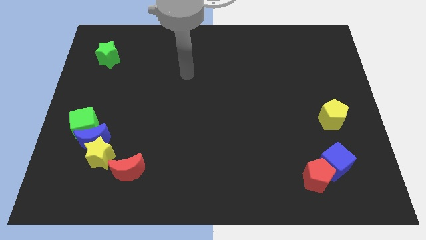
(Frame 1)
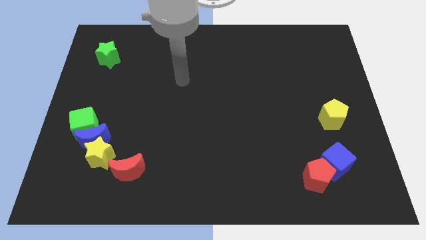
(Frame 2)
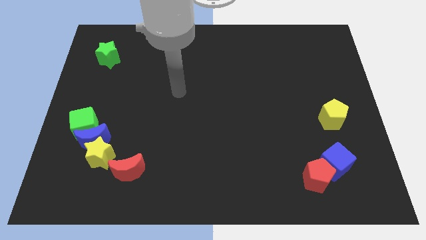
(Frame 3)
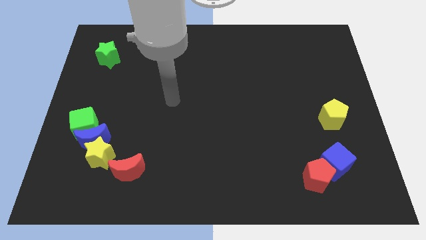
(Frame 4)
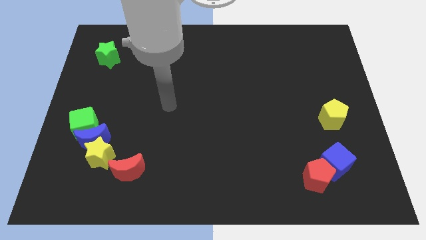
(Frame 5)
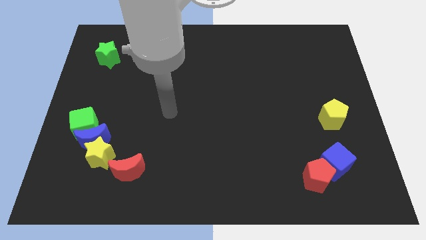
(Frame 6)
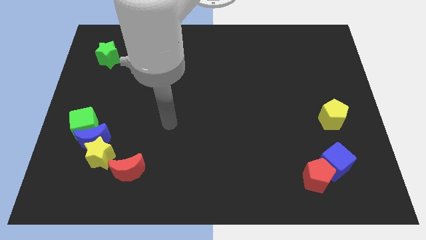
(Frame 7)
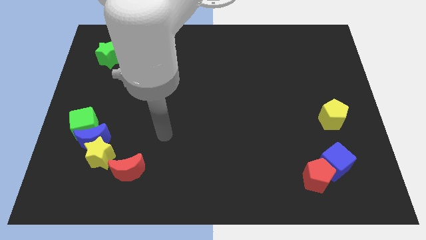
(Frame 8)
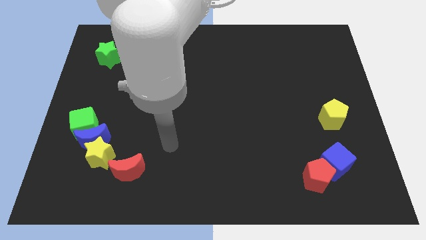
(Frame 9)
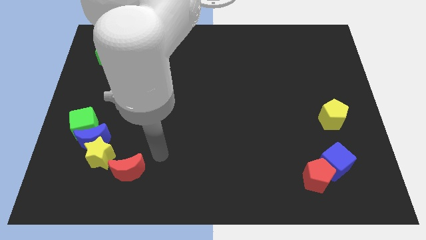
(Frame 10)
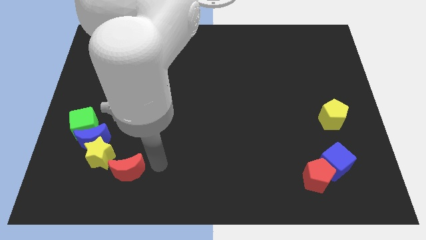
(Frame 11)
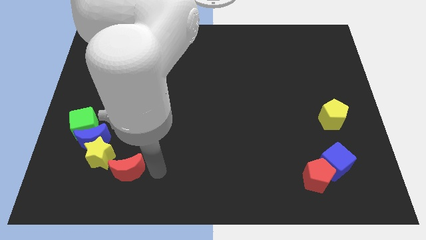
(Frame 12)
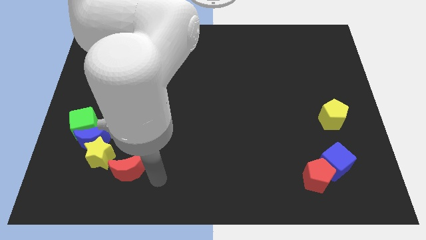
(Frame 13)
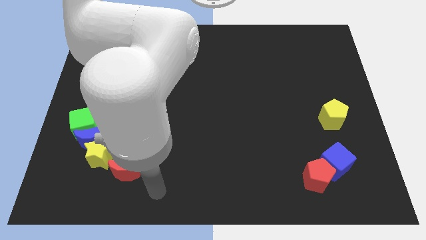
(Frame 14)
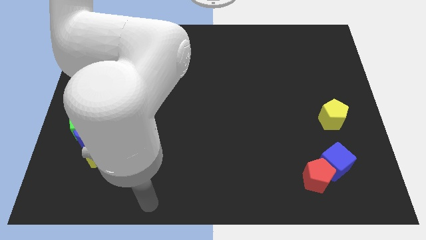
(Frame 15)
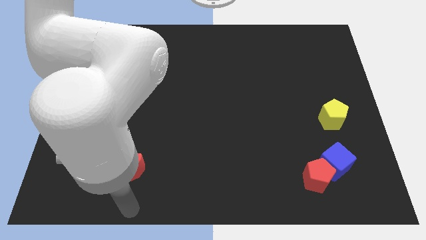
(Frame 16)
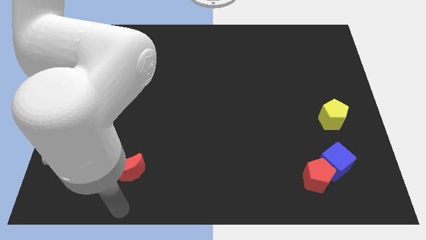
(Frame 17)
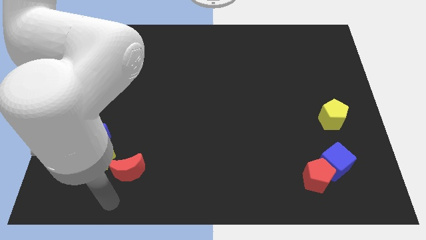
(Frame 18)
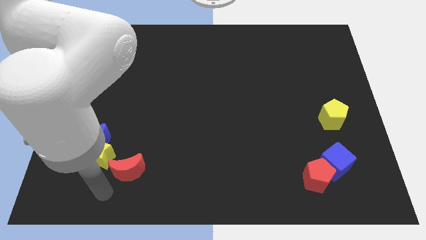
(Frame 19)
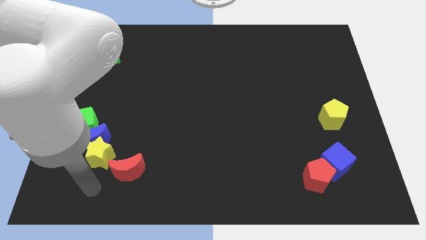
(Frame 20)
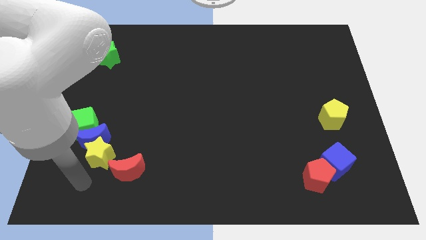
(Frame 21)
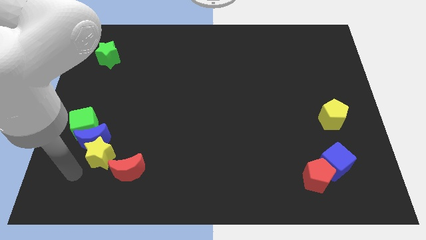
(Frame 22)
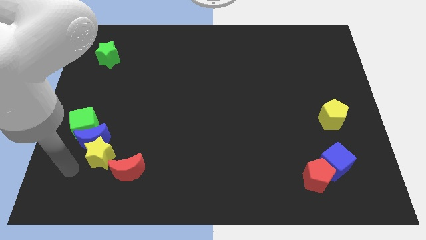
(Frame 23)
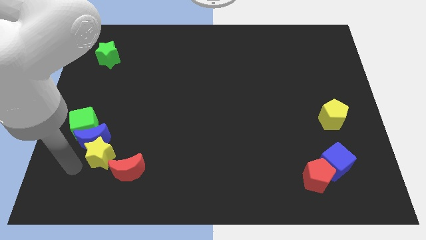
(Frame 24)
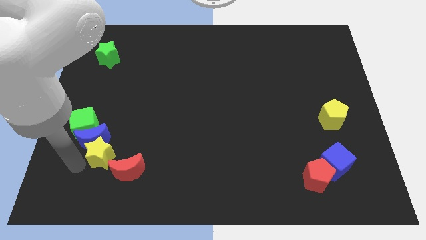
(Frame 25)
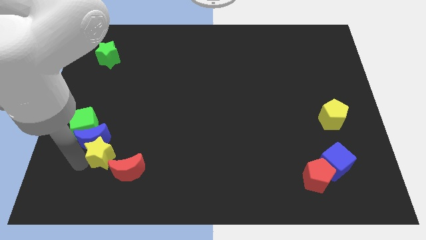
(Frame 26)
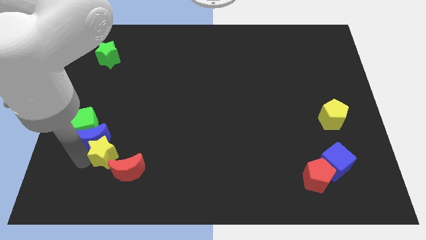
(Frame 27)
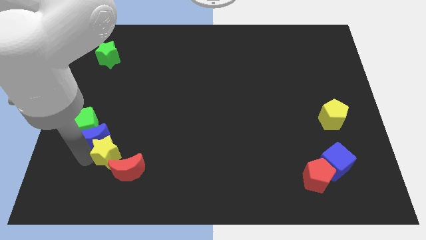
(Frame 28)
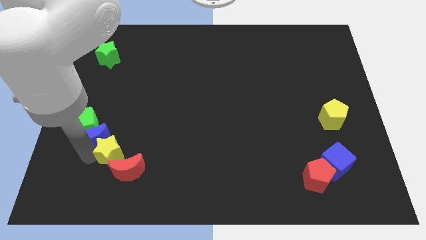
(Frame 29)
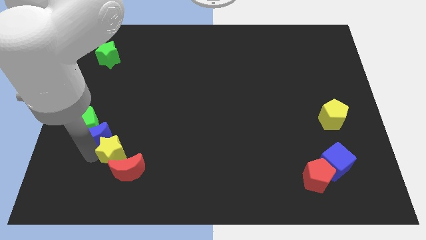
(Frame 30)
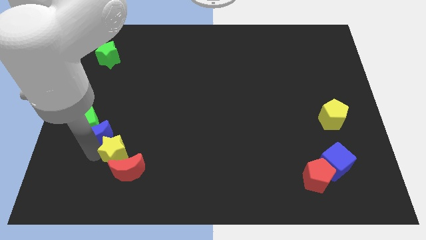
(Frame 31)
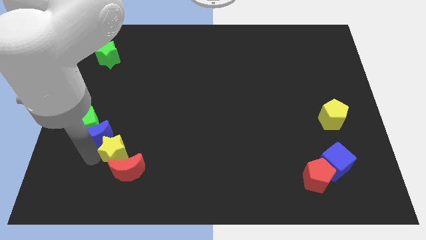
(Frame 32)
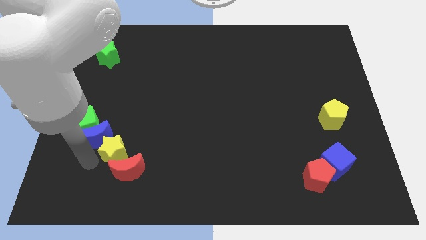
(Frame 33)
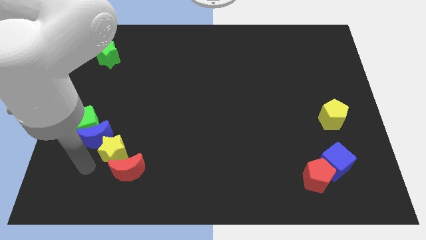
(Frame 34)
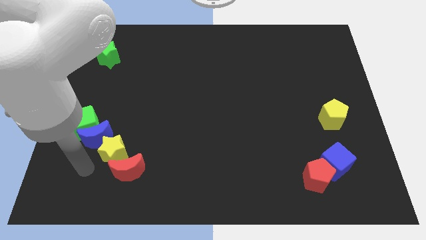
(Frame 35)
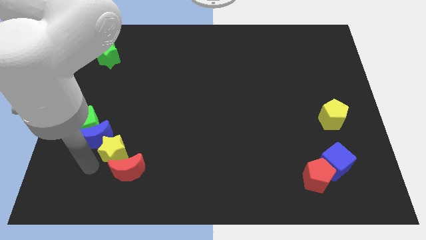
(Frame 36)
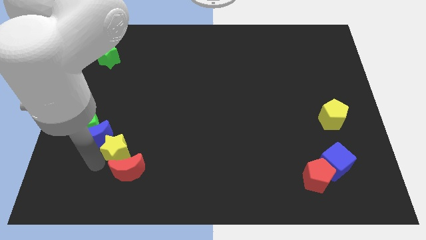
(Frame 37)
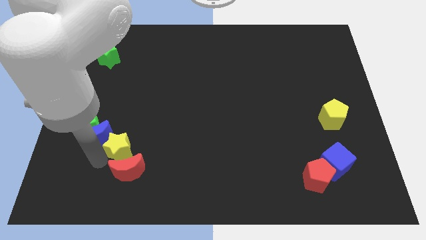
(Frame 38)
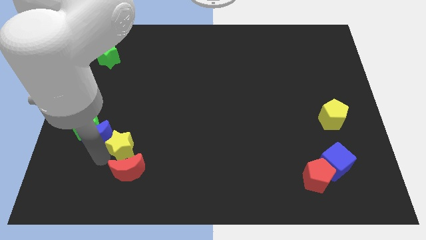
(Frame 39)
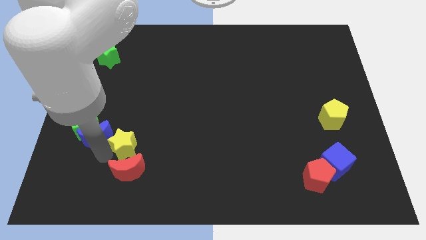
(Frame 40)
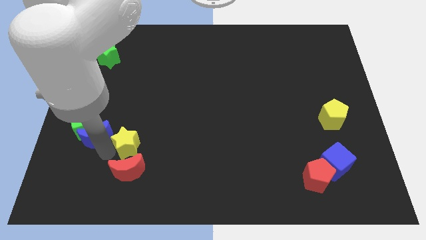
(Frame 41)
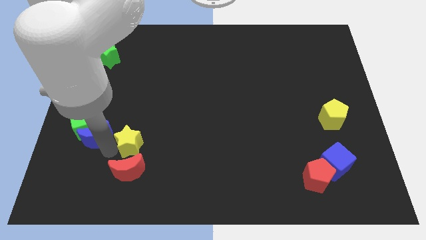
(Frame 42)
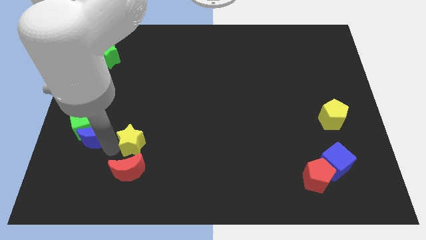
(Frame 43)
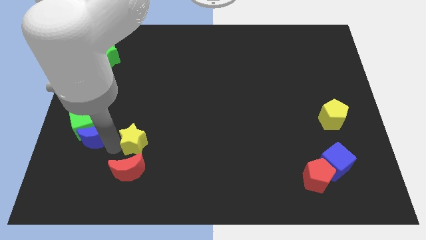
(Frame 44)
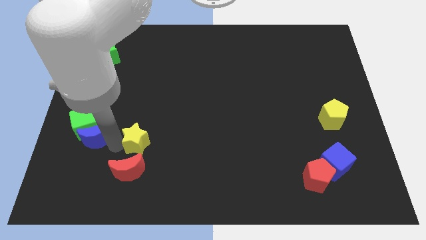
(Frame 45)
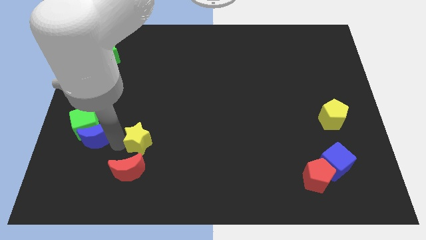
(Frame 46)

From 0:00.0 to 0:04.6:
slightly push the yellow star right

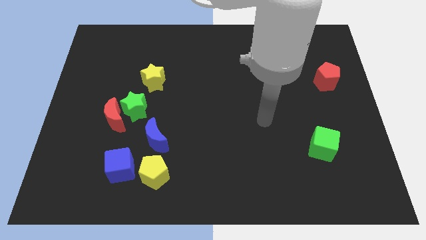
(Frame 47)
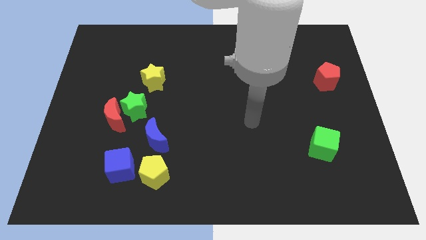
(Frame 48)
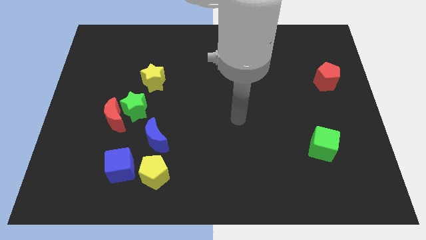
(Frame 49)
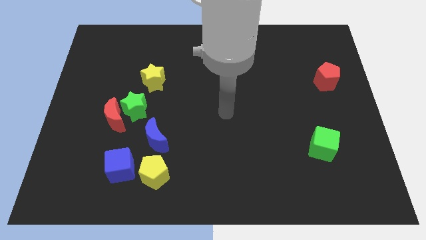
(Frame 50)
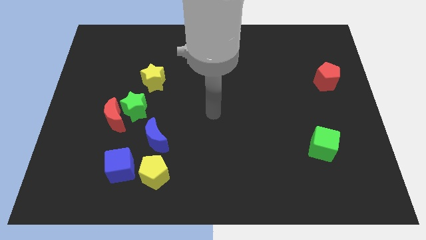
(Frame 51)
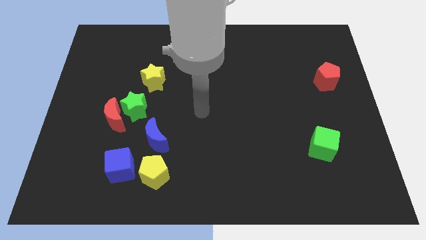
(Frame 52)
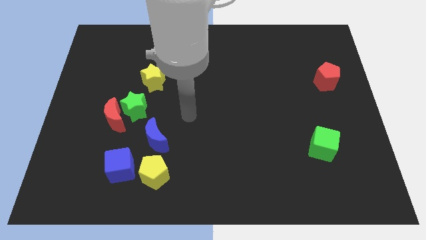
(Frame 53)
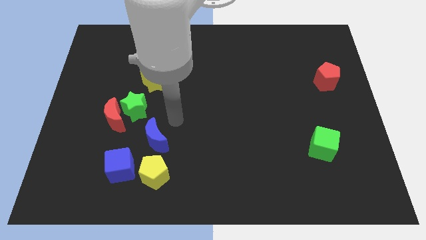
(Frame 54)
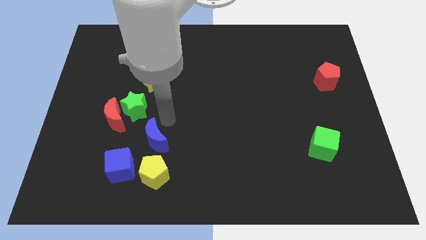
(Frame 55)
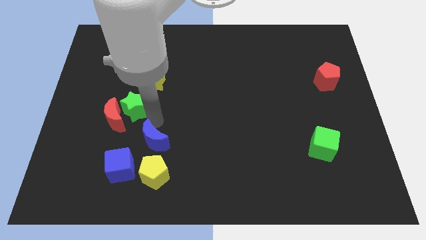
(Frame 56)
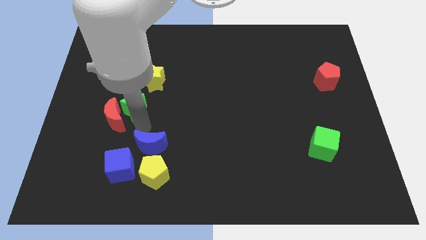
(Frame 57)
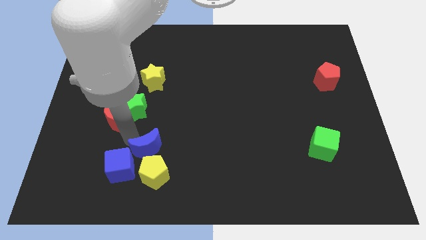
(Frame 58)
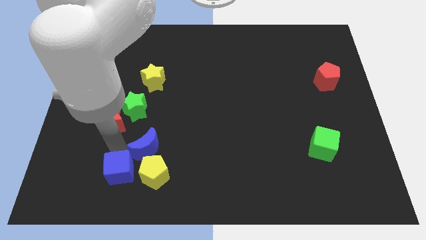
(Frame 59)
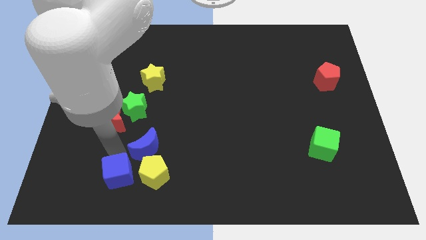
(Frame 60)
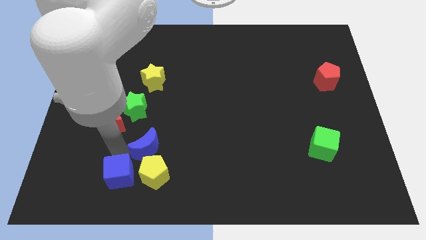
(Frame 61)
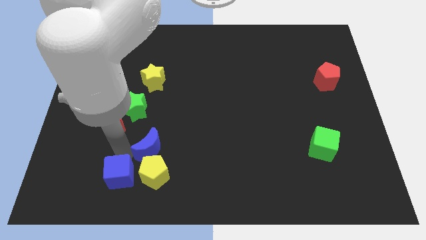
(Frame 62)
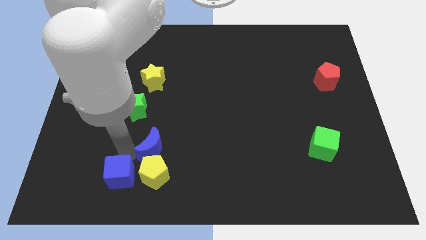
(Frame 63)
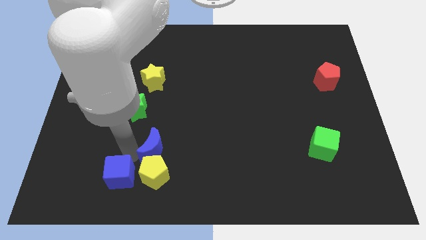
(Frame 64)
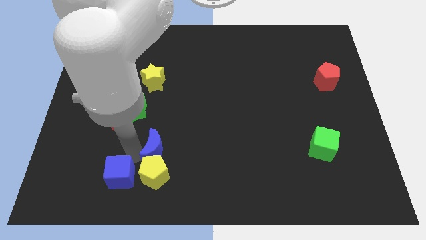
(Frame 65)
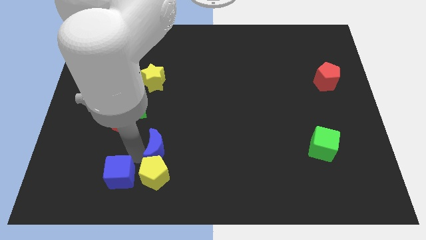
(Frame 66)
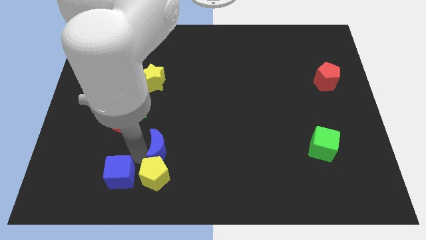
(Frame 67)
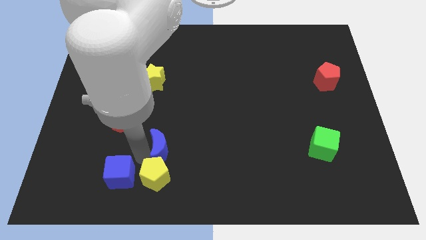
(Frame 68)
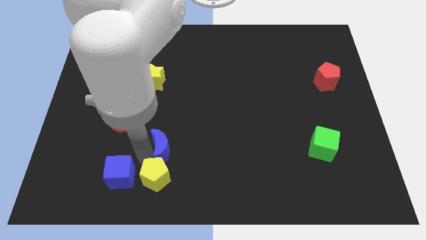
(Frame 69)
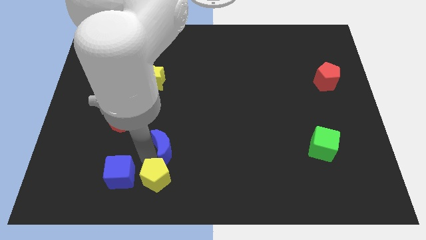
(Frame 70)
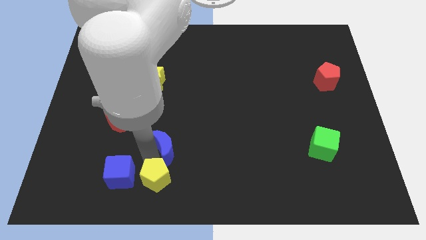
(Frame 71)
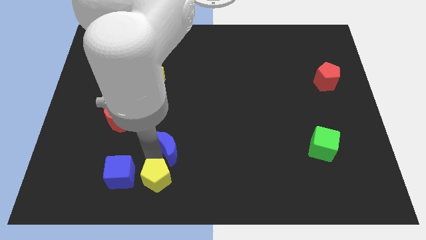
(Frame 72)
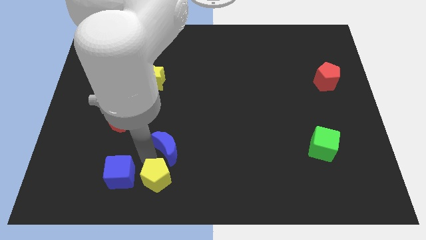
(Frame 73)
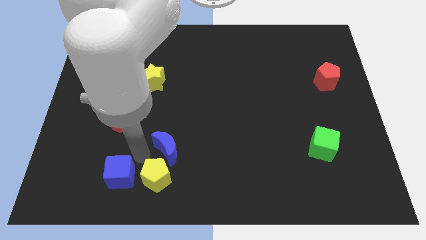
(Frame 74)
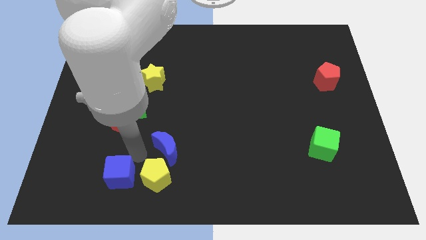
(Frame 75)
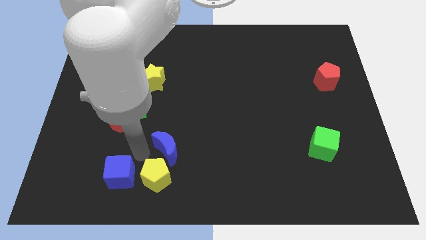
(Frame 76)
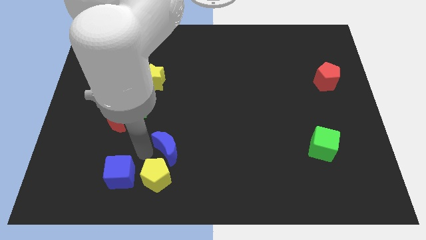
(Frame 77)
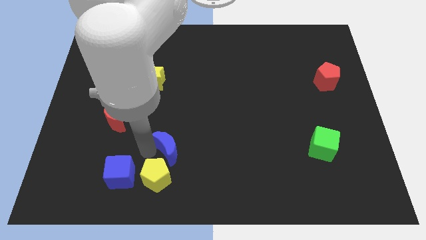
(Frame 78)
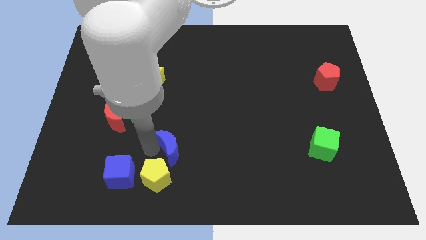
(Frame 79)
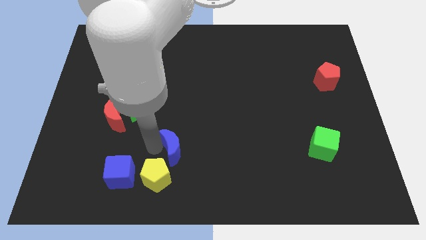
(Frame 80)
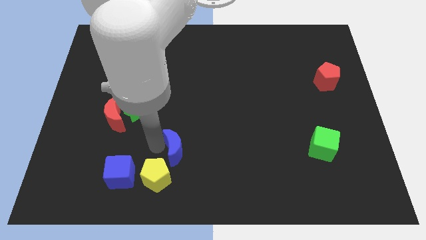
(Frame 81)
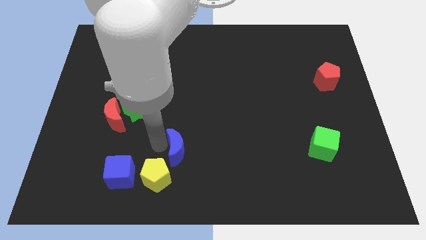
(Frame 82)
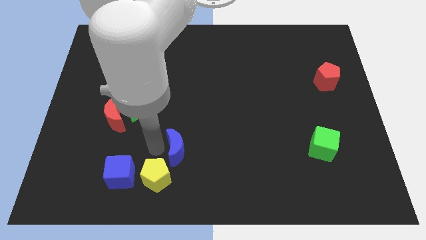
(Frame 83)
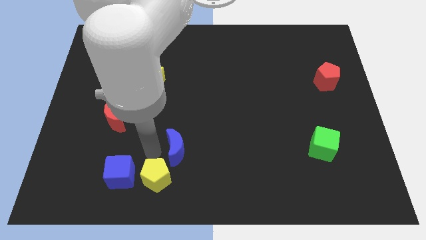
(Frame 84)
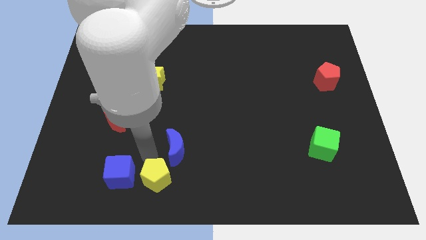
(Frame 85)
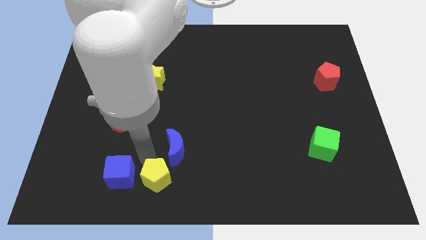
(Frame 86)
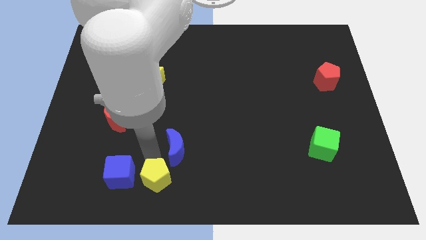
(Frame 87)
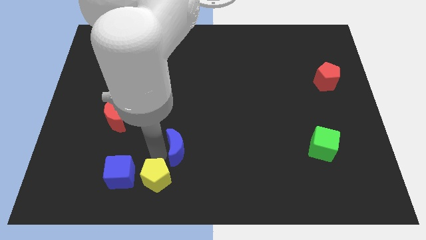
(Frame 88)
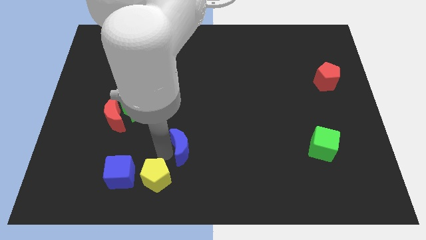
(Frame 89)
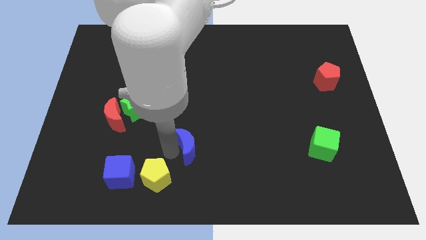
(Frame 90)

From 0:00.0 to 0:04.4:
move the blue moon right a little bit
